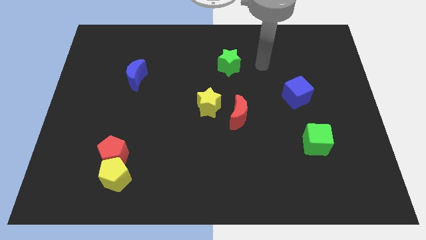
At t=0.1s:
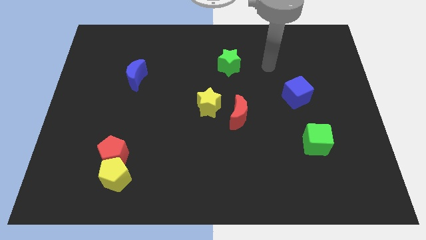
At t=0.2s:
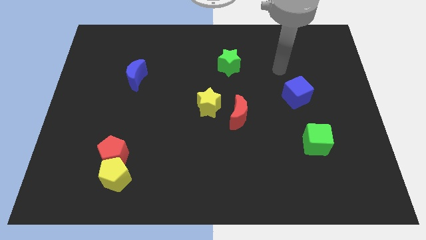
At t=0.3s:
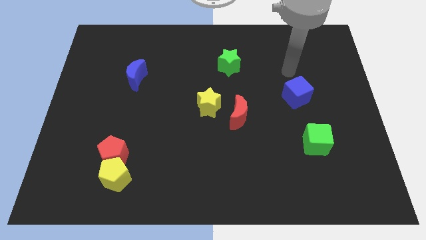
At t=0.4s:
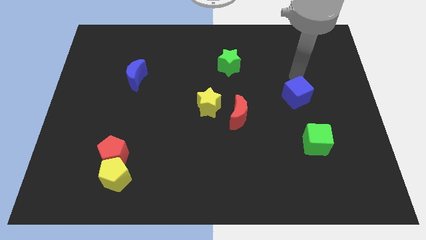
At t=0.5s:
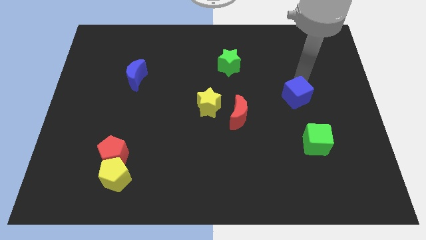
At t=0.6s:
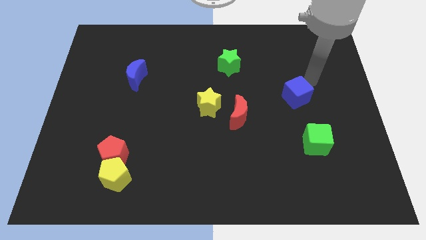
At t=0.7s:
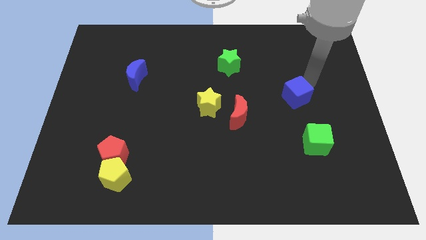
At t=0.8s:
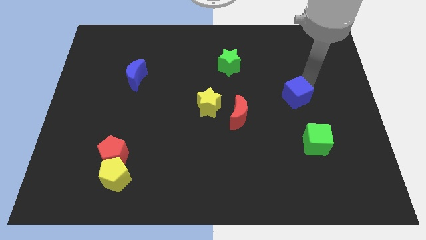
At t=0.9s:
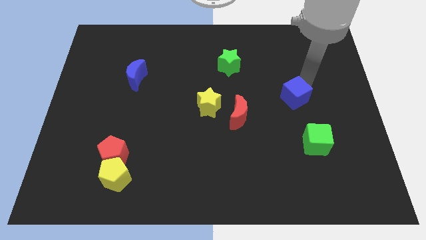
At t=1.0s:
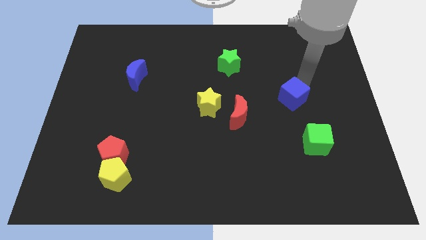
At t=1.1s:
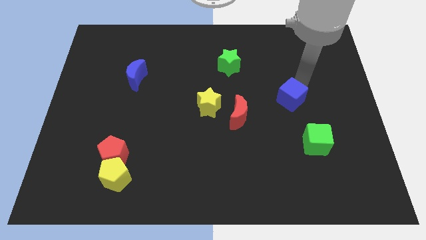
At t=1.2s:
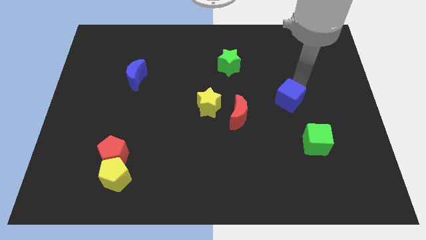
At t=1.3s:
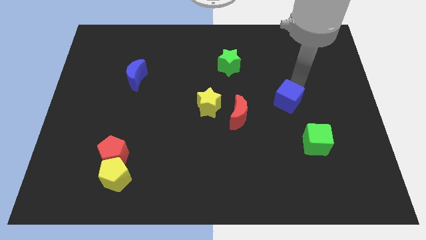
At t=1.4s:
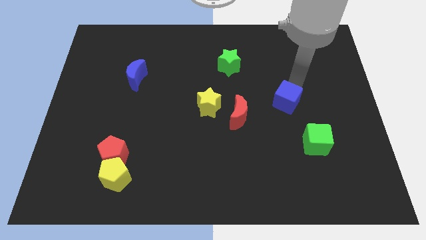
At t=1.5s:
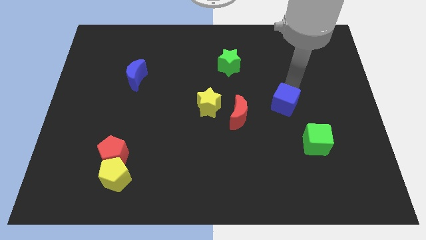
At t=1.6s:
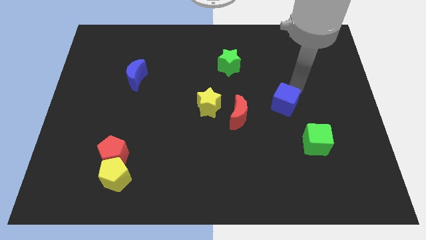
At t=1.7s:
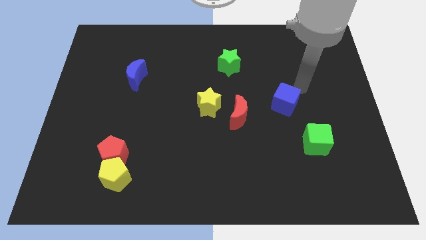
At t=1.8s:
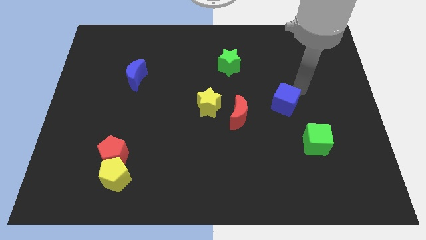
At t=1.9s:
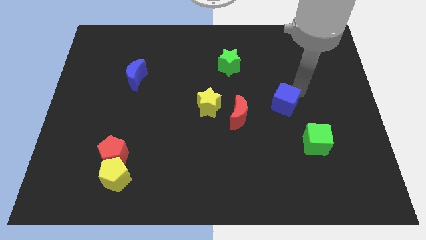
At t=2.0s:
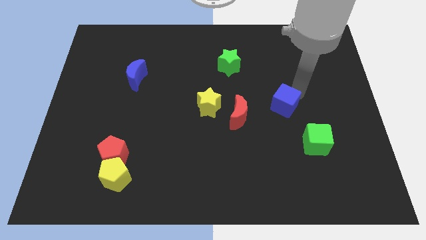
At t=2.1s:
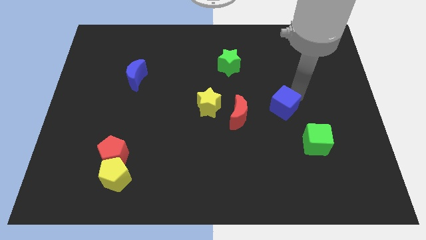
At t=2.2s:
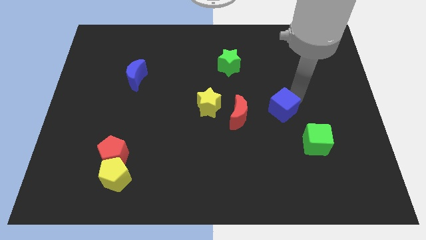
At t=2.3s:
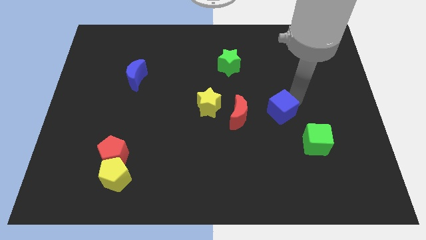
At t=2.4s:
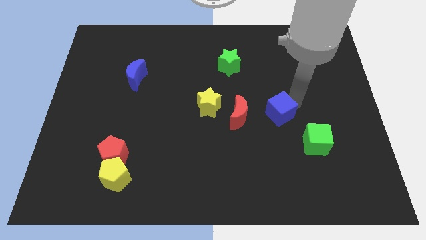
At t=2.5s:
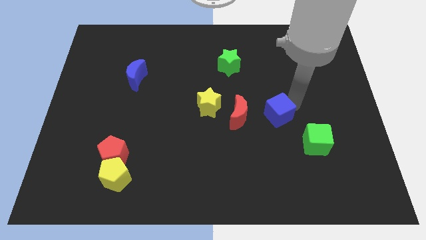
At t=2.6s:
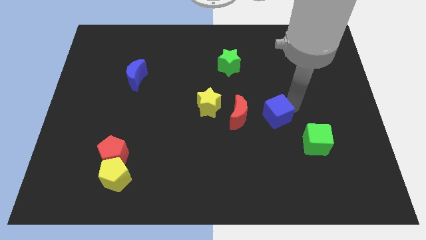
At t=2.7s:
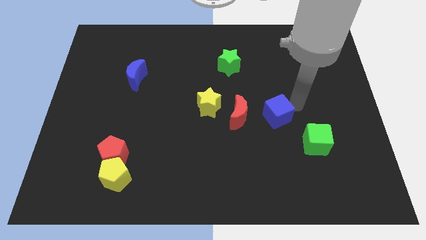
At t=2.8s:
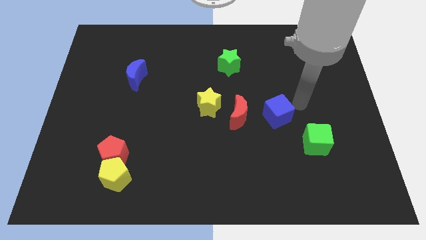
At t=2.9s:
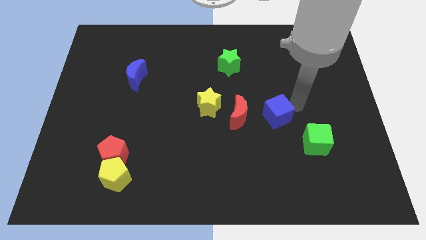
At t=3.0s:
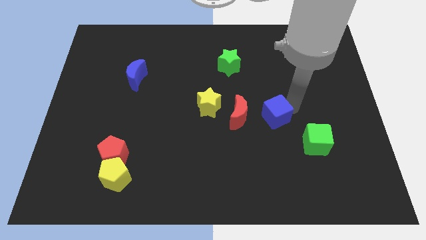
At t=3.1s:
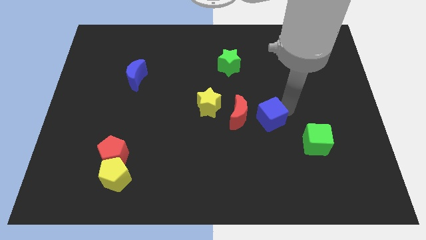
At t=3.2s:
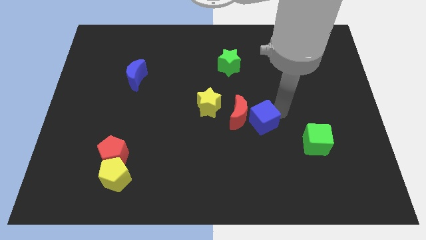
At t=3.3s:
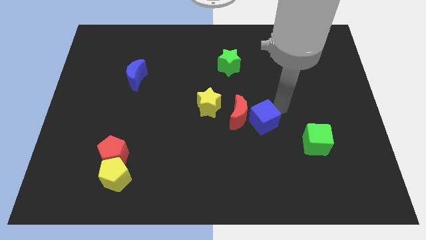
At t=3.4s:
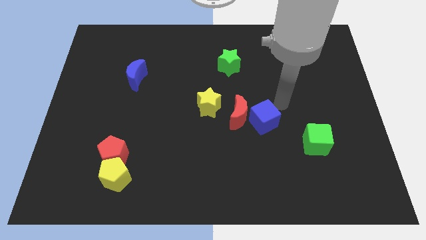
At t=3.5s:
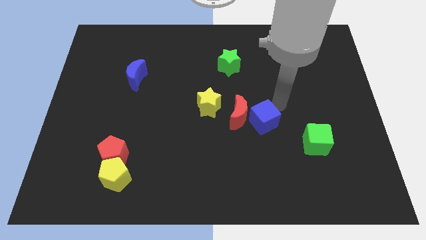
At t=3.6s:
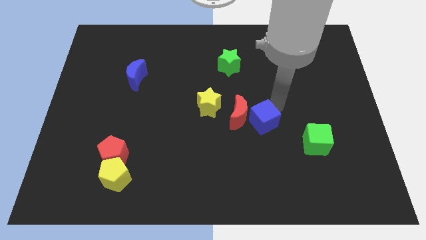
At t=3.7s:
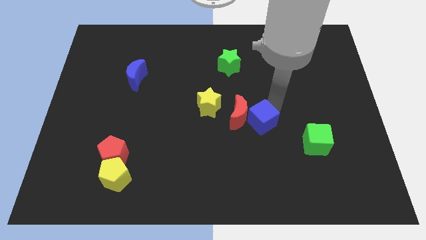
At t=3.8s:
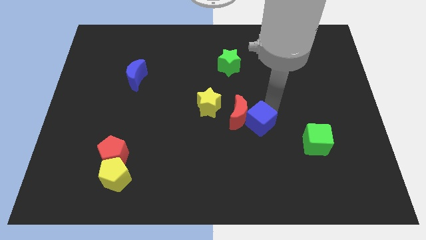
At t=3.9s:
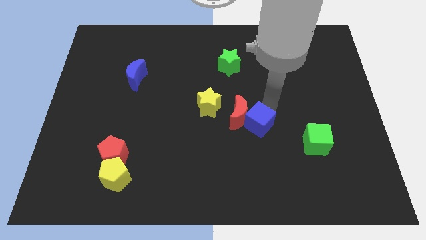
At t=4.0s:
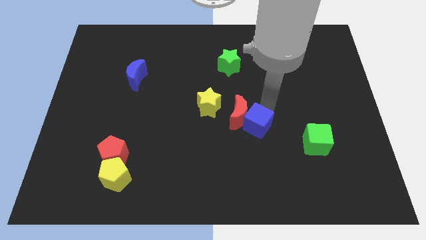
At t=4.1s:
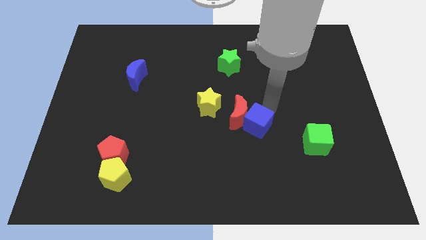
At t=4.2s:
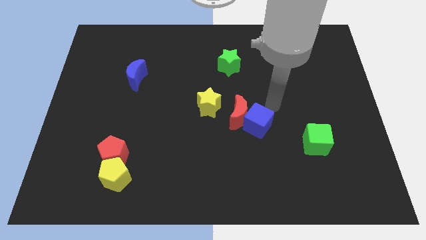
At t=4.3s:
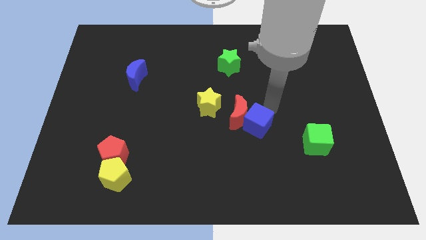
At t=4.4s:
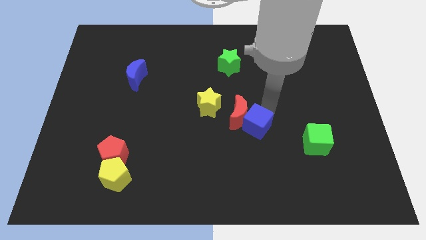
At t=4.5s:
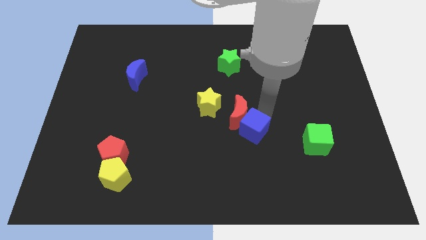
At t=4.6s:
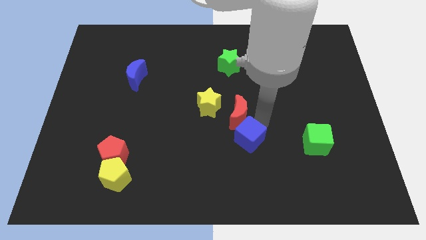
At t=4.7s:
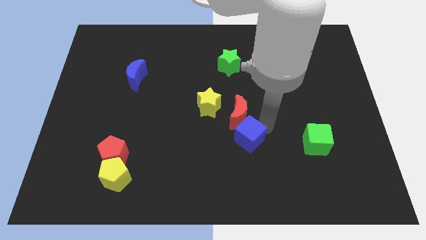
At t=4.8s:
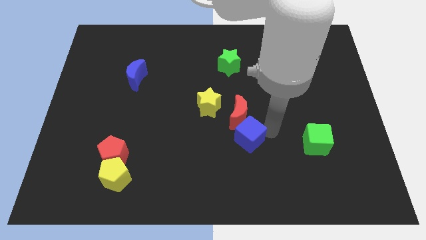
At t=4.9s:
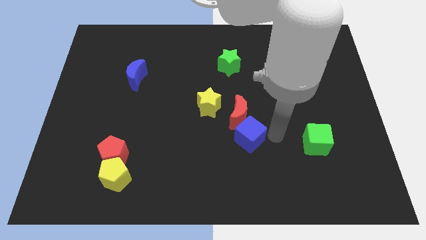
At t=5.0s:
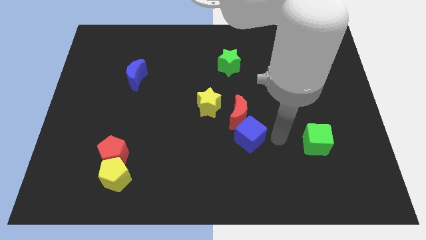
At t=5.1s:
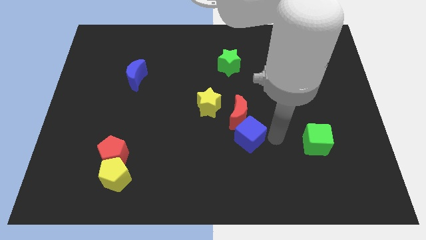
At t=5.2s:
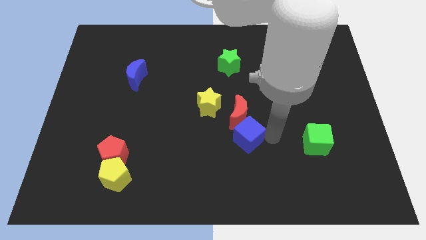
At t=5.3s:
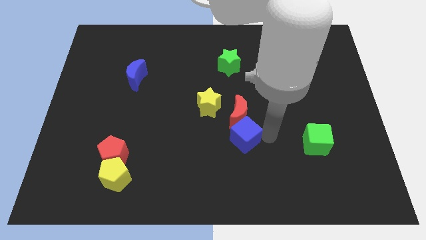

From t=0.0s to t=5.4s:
put the blue cube to the bottom left of the red moon

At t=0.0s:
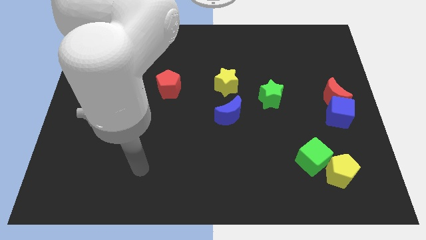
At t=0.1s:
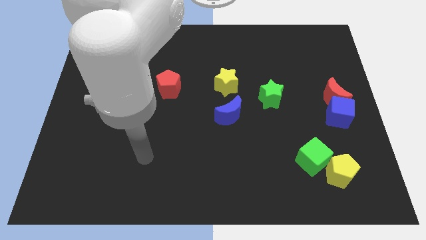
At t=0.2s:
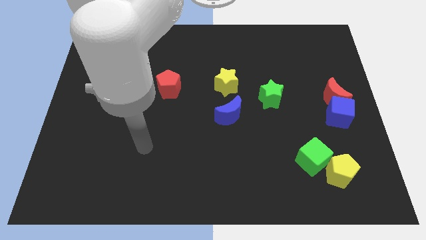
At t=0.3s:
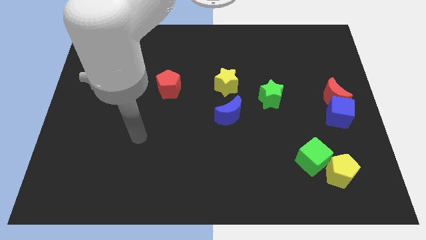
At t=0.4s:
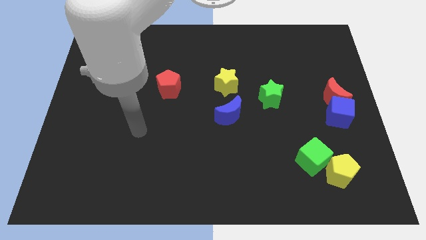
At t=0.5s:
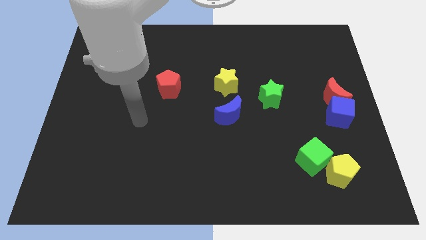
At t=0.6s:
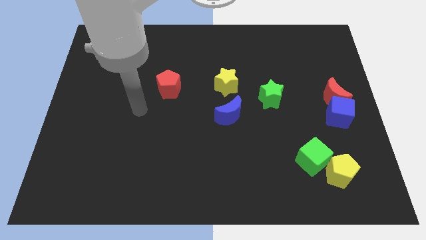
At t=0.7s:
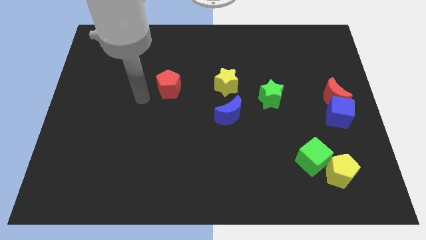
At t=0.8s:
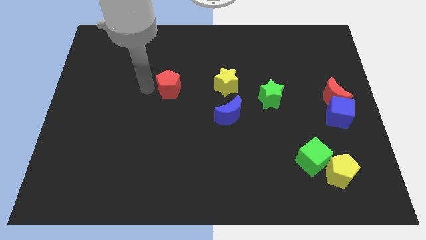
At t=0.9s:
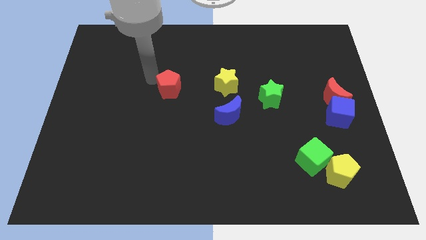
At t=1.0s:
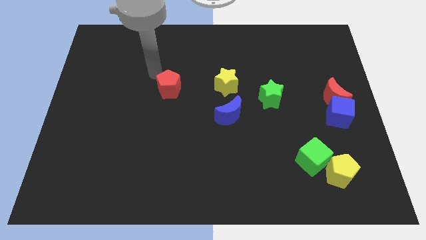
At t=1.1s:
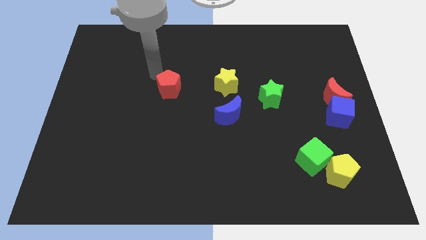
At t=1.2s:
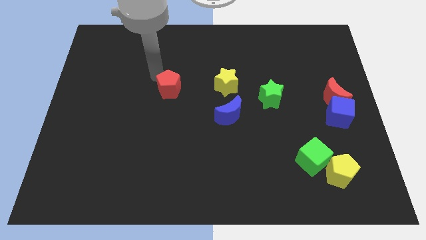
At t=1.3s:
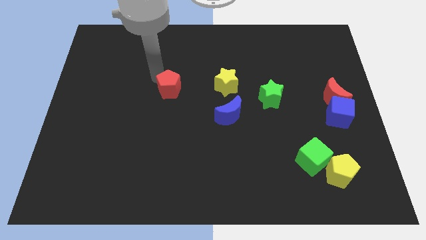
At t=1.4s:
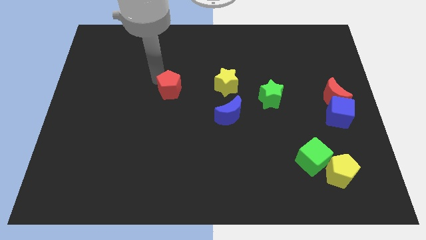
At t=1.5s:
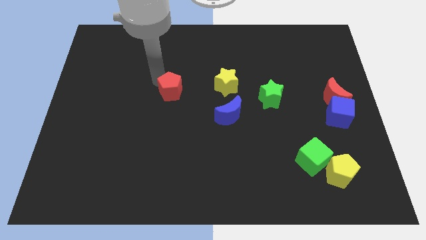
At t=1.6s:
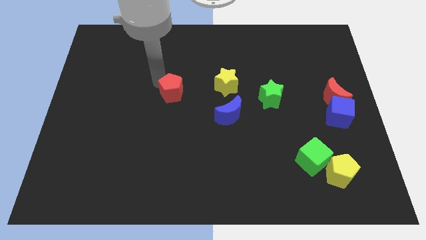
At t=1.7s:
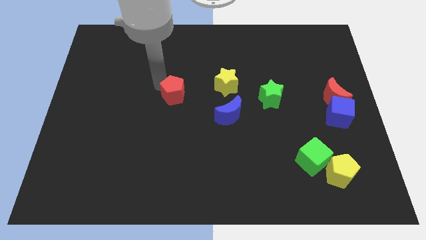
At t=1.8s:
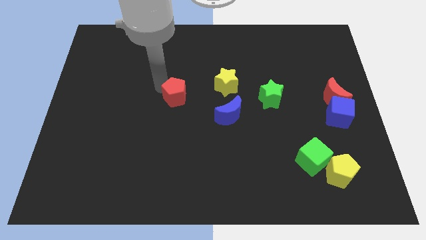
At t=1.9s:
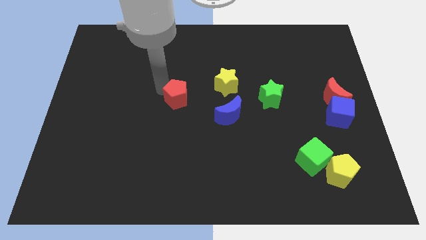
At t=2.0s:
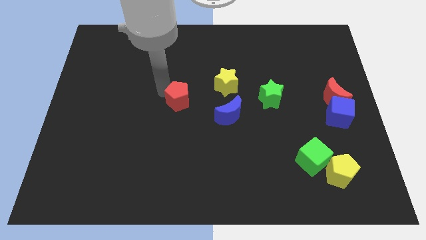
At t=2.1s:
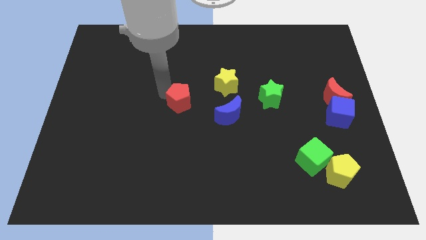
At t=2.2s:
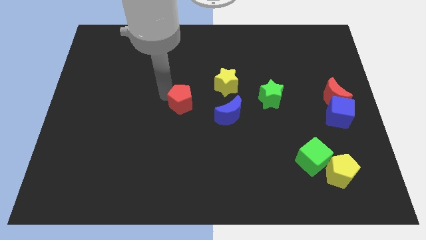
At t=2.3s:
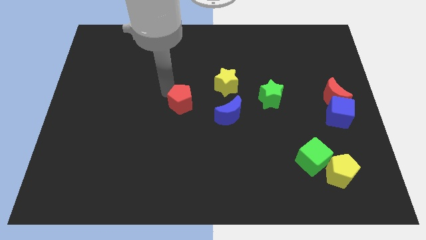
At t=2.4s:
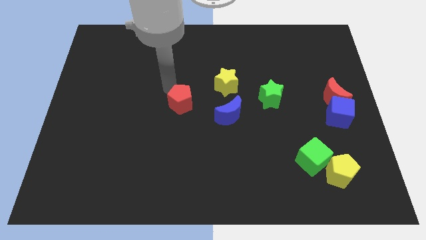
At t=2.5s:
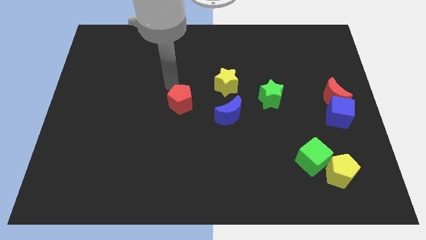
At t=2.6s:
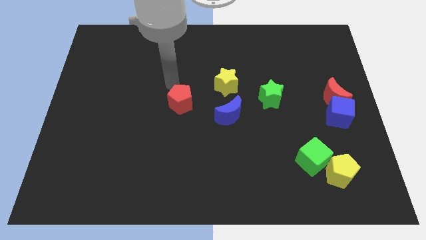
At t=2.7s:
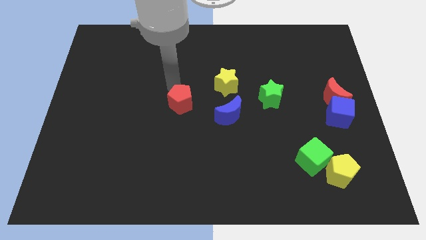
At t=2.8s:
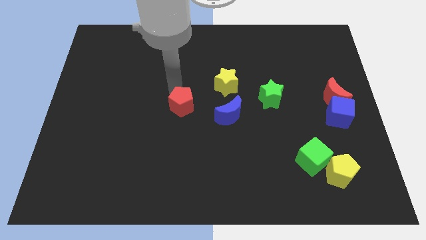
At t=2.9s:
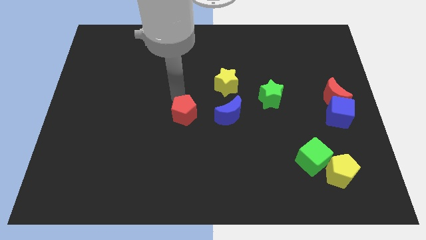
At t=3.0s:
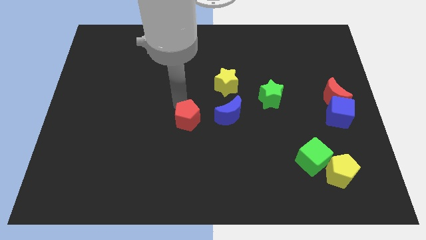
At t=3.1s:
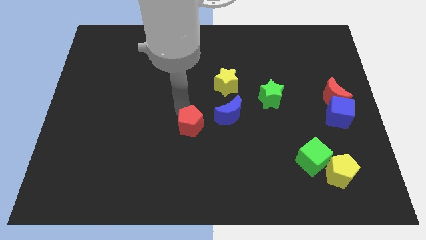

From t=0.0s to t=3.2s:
slide the red pentagon to the bottom left of the blue moon
